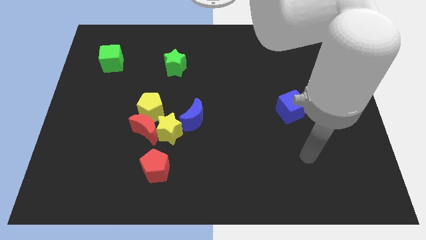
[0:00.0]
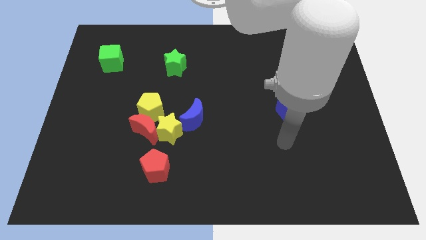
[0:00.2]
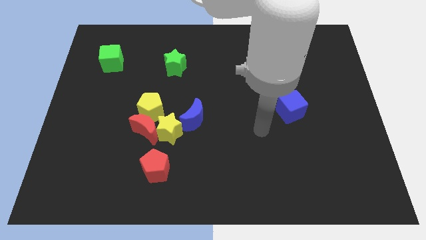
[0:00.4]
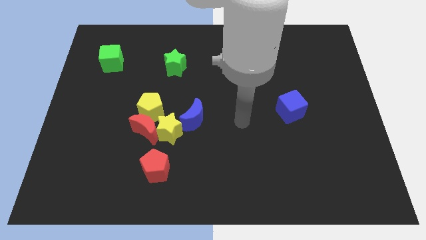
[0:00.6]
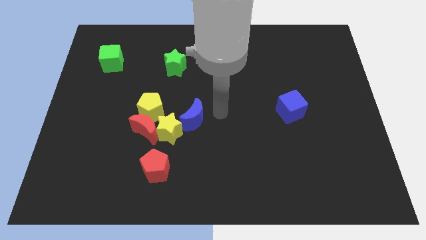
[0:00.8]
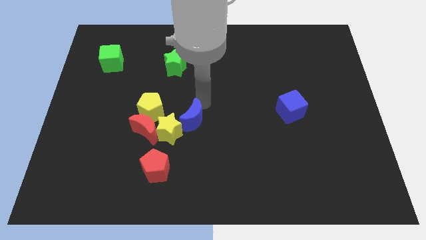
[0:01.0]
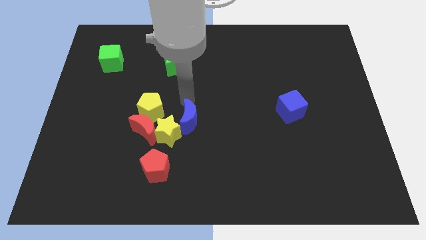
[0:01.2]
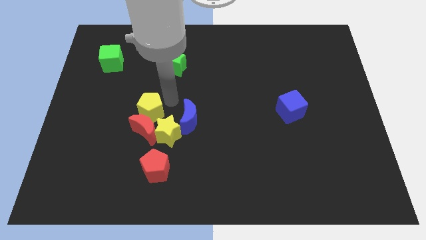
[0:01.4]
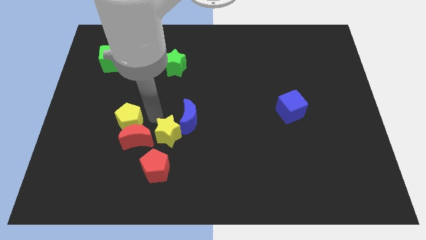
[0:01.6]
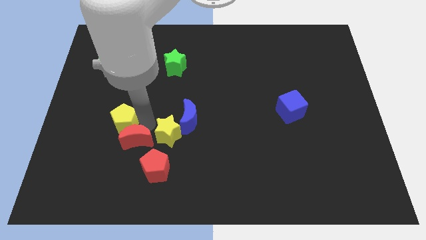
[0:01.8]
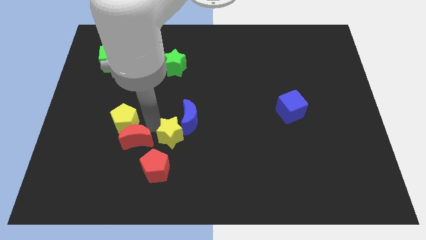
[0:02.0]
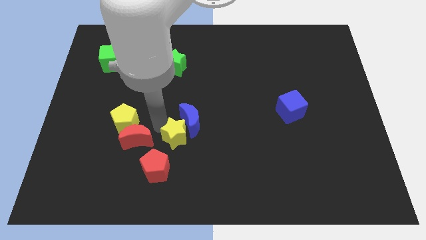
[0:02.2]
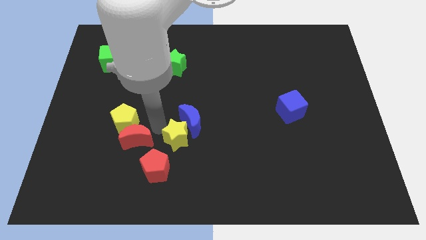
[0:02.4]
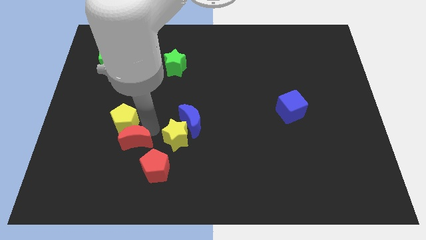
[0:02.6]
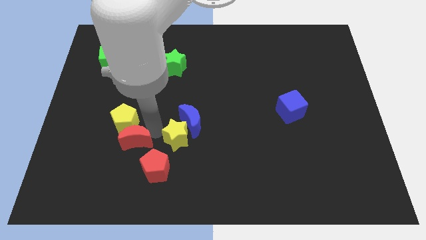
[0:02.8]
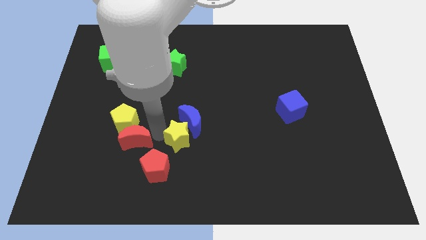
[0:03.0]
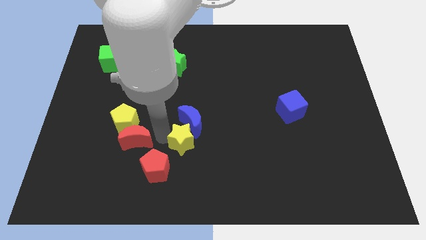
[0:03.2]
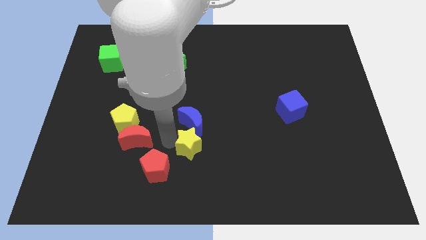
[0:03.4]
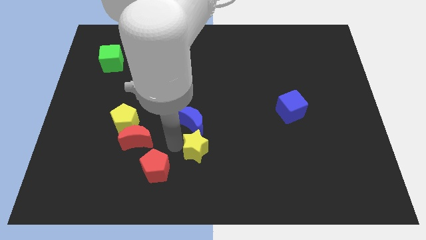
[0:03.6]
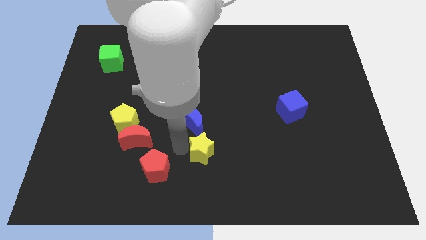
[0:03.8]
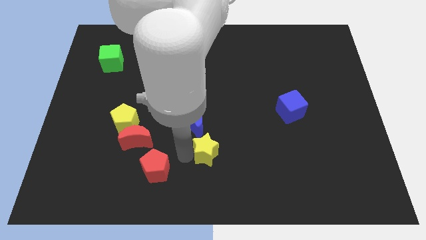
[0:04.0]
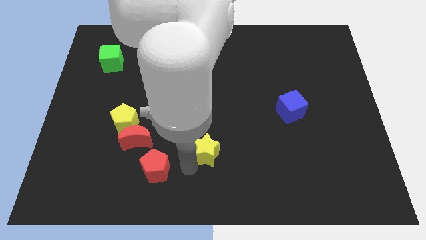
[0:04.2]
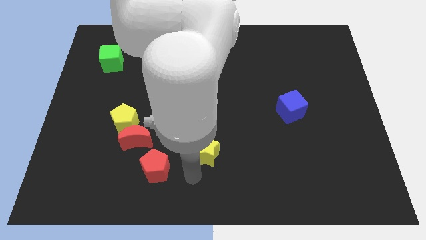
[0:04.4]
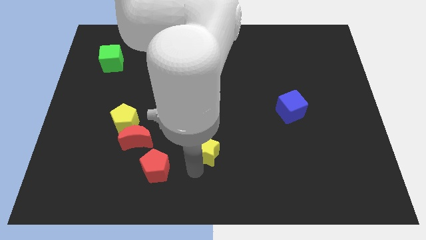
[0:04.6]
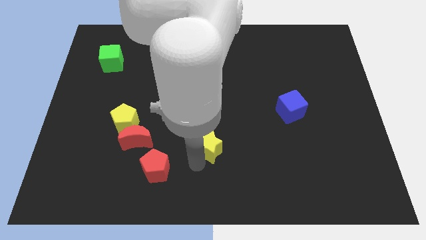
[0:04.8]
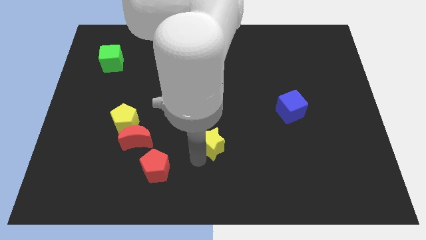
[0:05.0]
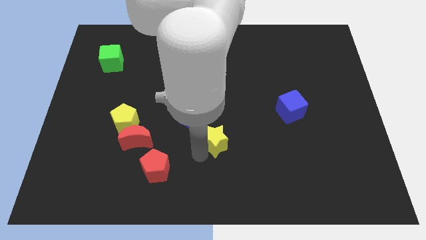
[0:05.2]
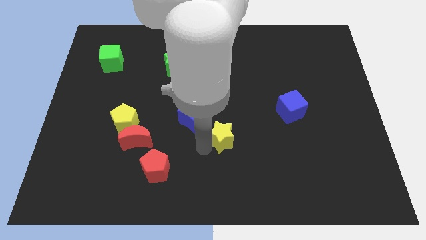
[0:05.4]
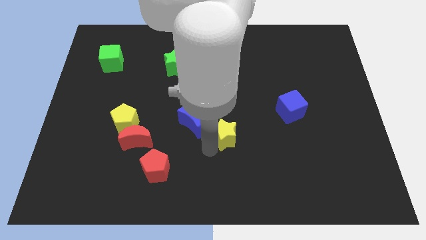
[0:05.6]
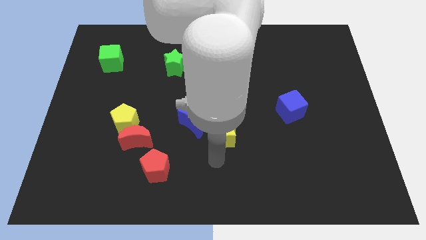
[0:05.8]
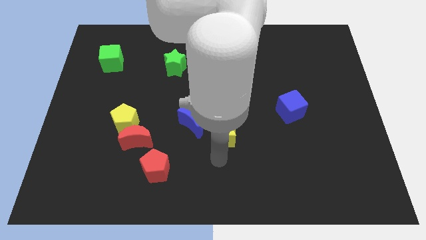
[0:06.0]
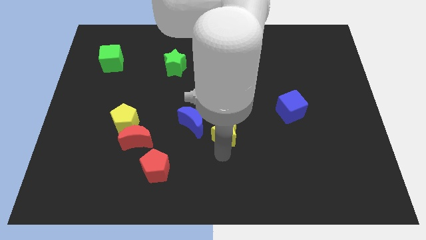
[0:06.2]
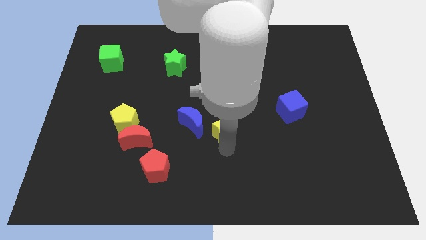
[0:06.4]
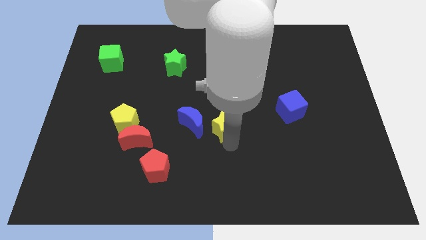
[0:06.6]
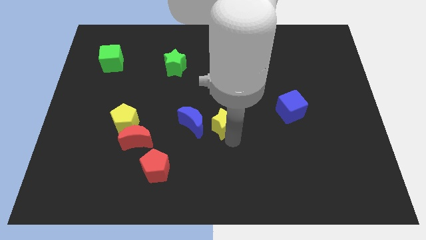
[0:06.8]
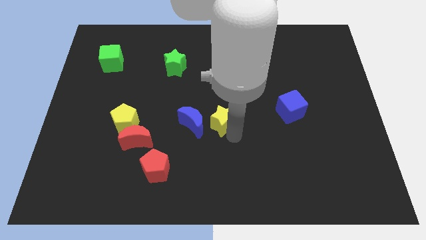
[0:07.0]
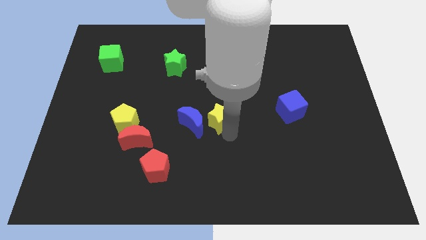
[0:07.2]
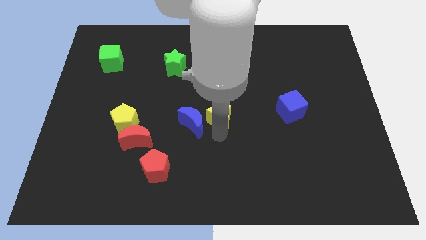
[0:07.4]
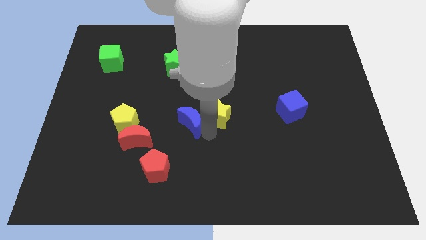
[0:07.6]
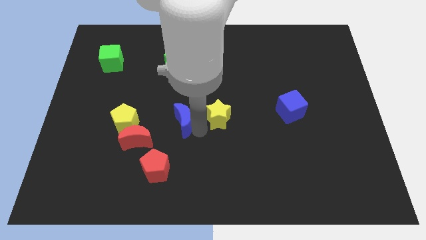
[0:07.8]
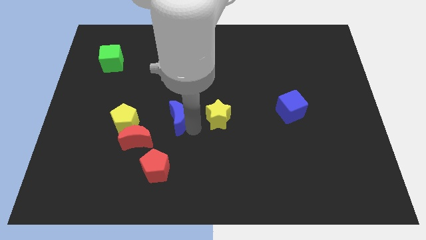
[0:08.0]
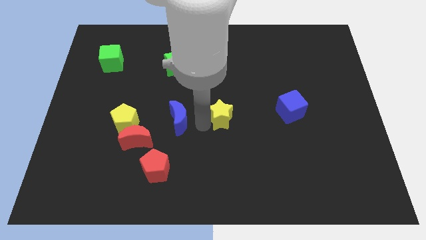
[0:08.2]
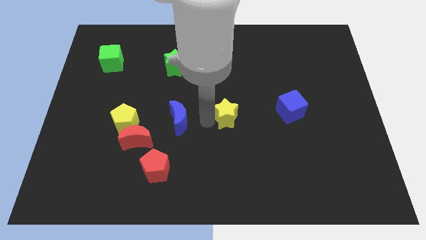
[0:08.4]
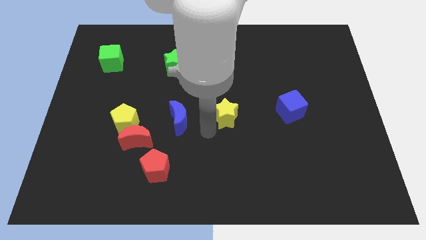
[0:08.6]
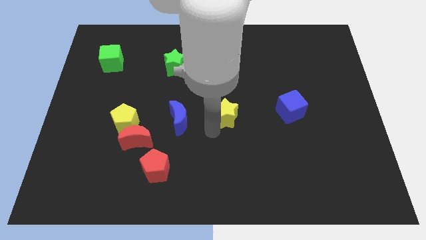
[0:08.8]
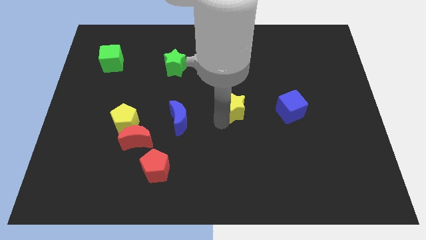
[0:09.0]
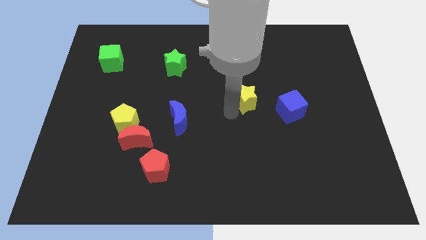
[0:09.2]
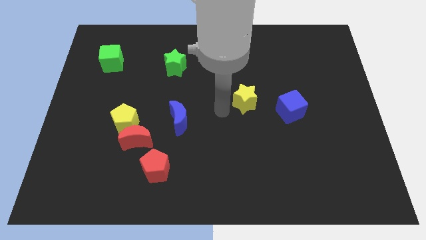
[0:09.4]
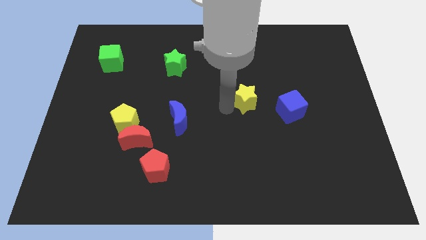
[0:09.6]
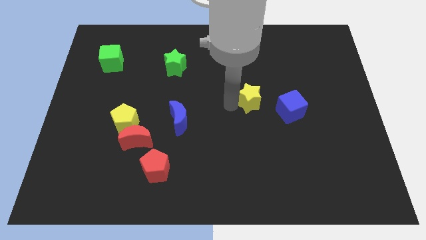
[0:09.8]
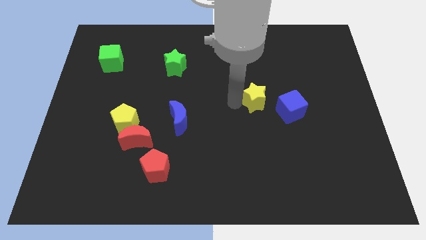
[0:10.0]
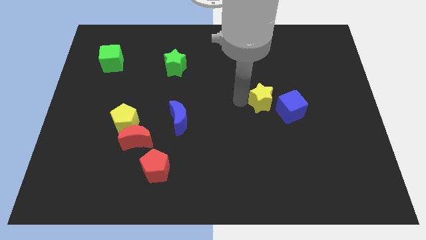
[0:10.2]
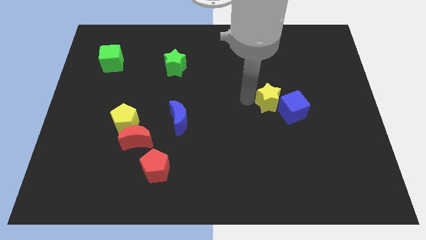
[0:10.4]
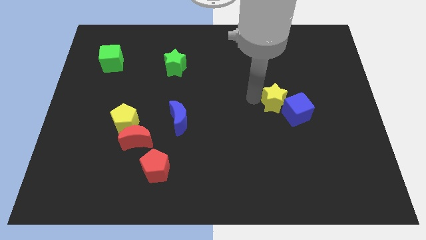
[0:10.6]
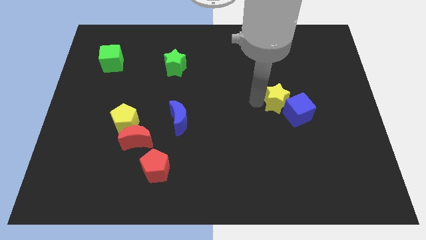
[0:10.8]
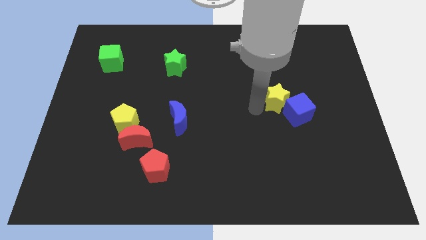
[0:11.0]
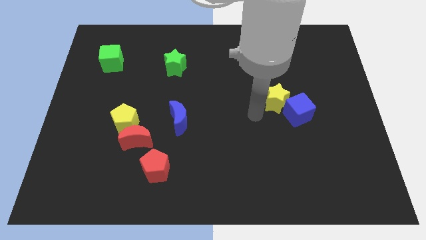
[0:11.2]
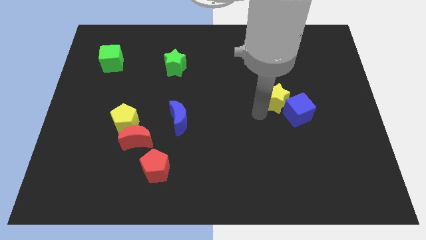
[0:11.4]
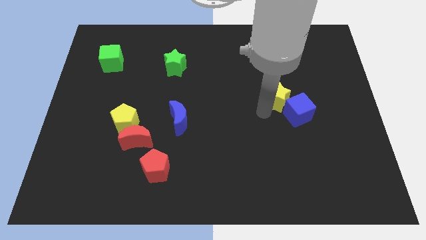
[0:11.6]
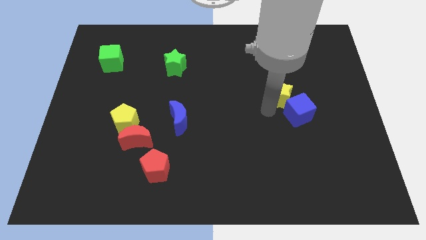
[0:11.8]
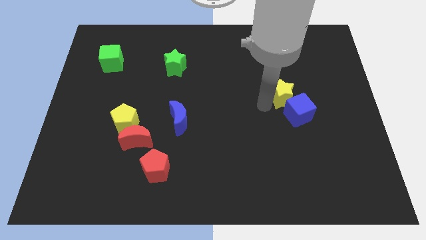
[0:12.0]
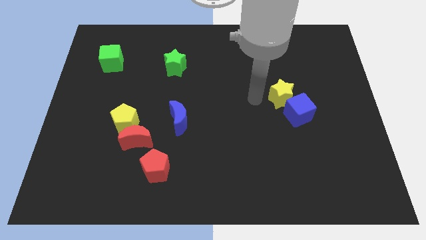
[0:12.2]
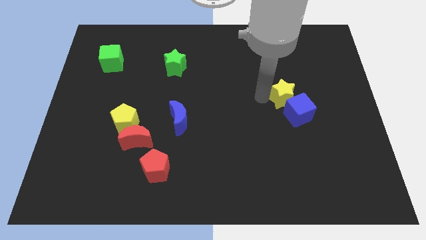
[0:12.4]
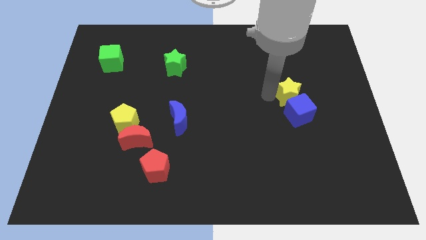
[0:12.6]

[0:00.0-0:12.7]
push the yellow star to the top right of the blue cube

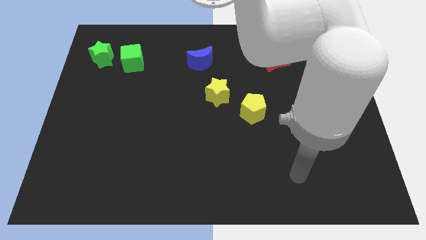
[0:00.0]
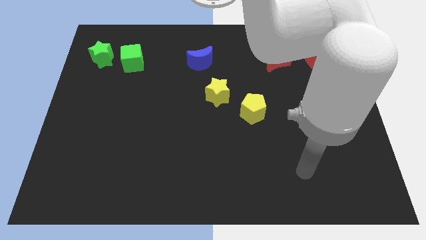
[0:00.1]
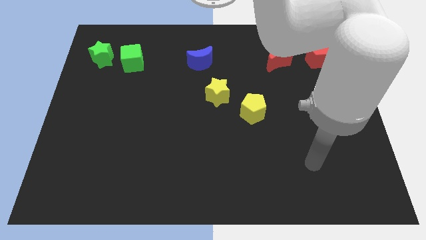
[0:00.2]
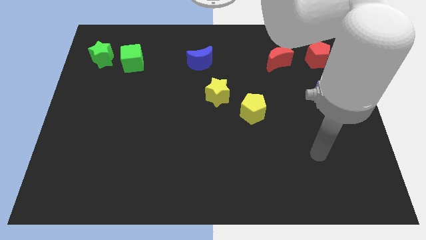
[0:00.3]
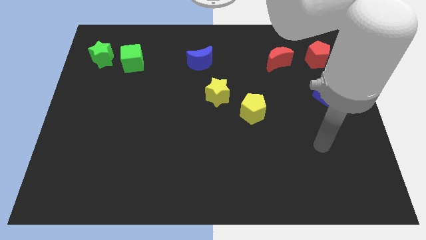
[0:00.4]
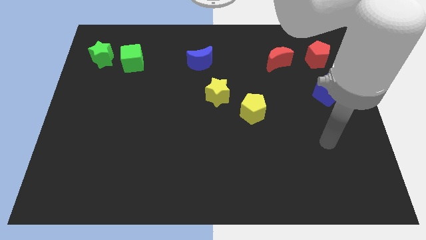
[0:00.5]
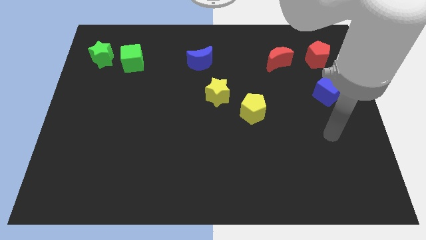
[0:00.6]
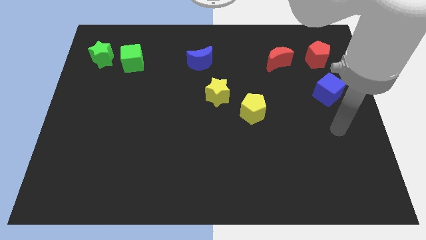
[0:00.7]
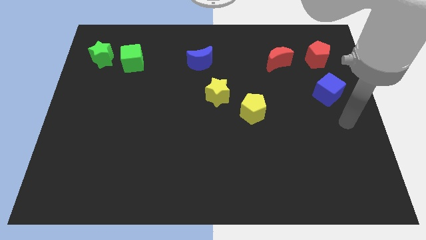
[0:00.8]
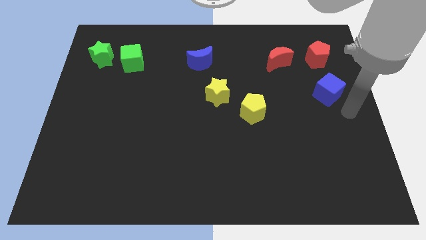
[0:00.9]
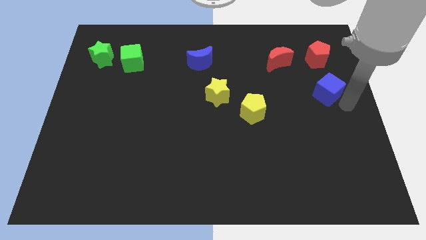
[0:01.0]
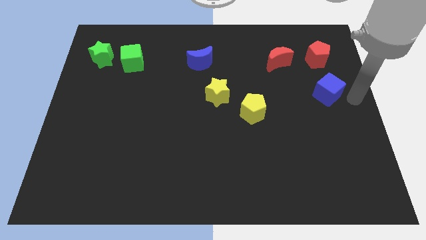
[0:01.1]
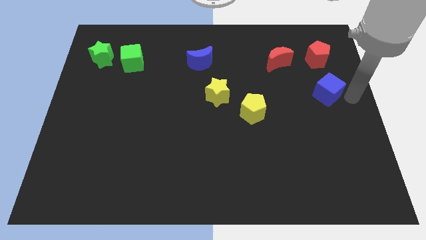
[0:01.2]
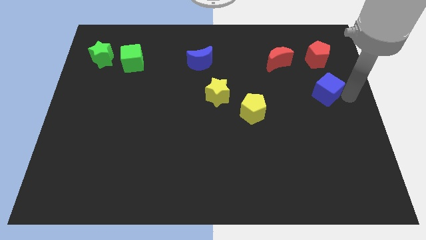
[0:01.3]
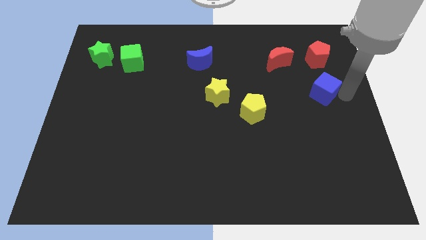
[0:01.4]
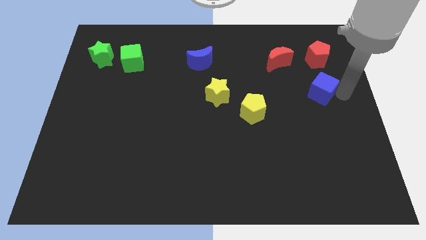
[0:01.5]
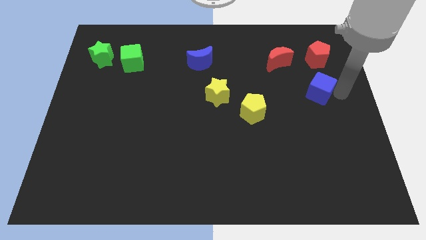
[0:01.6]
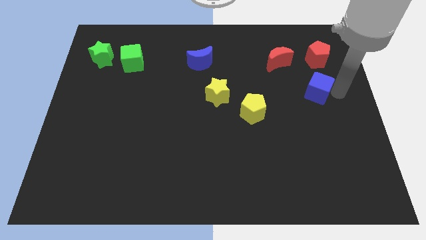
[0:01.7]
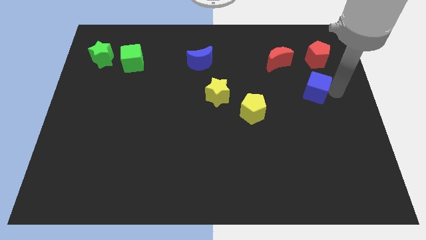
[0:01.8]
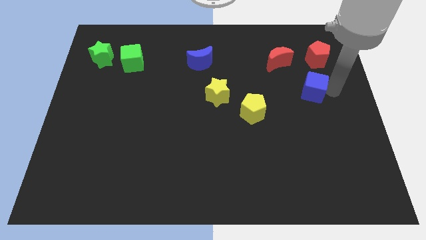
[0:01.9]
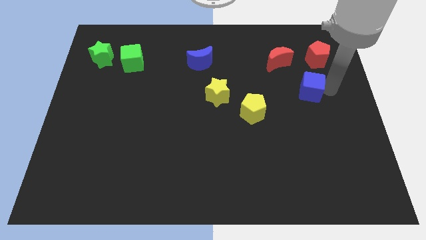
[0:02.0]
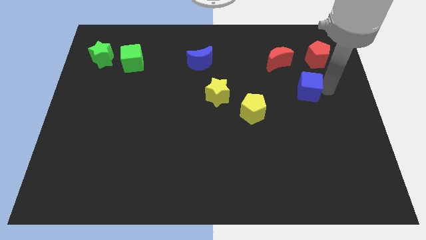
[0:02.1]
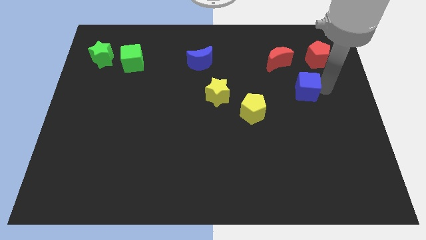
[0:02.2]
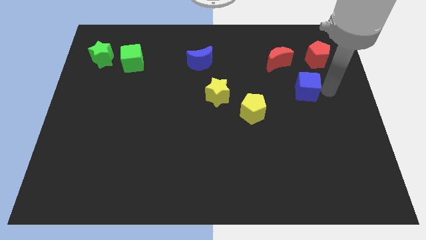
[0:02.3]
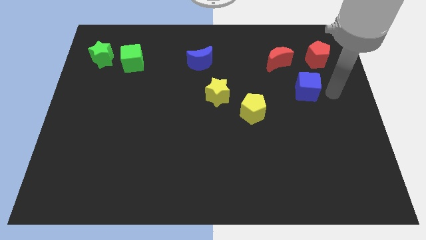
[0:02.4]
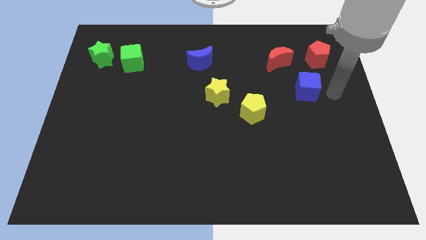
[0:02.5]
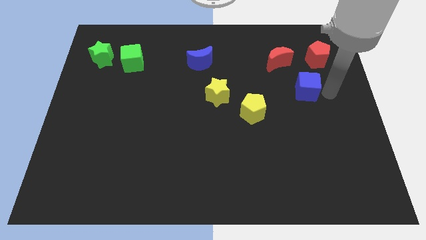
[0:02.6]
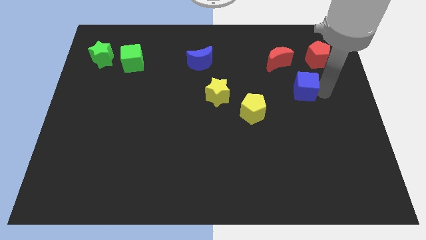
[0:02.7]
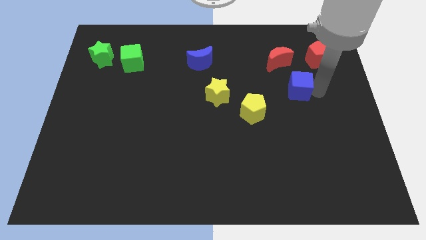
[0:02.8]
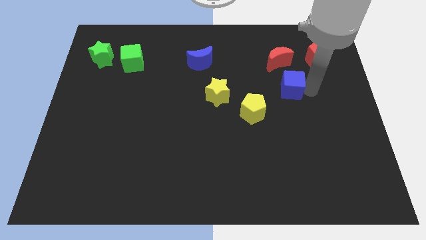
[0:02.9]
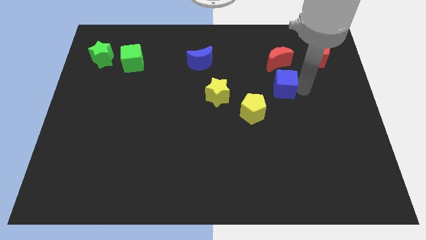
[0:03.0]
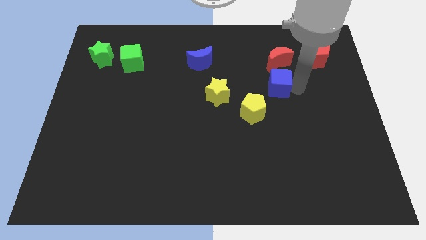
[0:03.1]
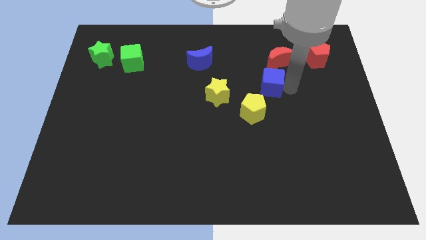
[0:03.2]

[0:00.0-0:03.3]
move the blue cube to the top side of the yellow pentagon
